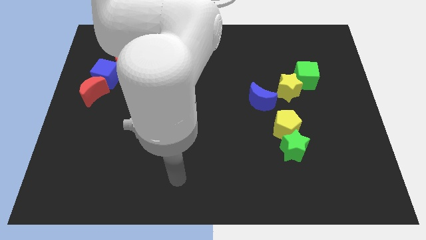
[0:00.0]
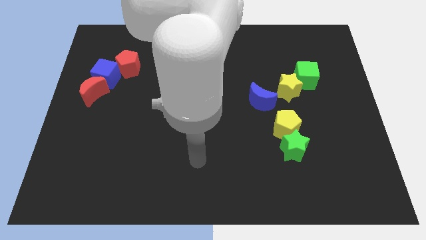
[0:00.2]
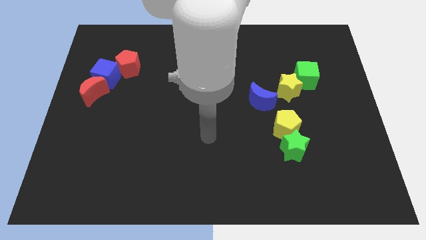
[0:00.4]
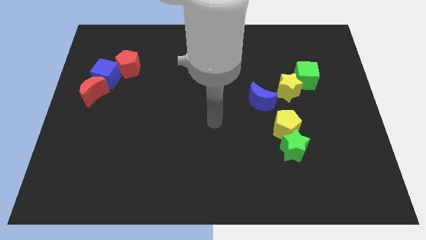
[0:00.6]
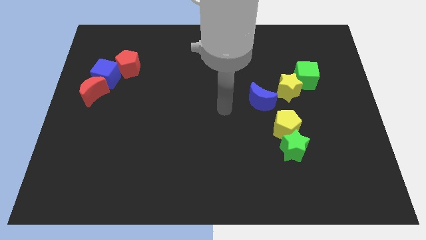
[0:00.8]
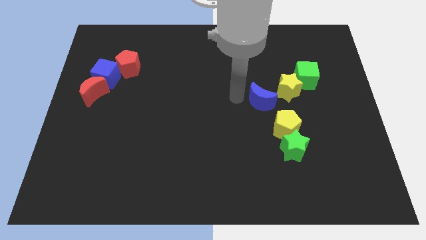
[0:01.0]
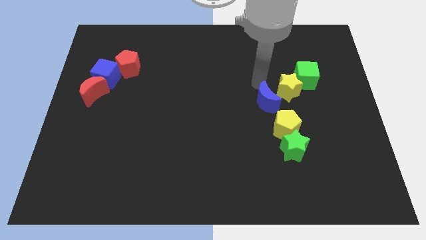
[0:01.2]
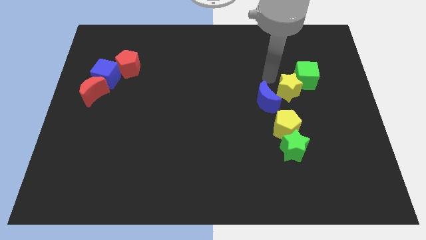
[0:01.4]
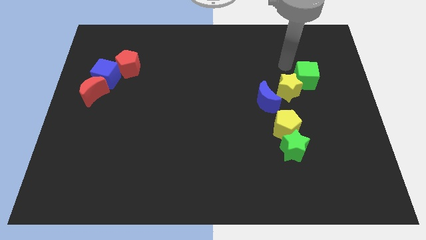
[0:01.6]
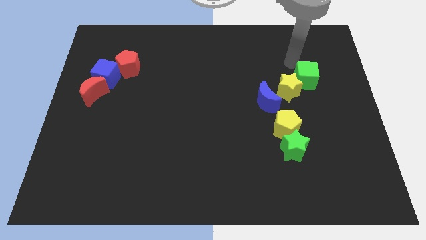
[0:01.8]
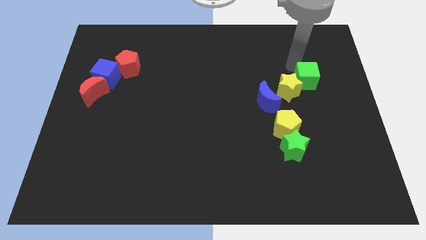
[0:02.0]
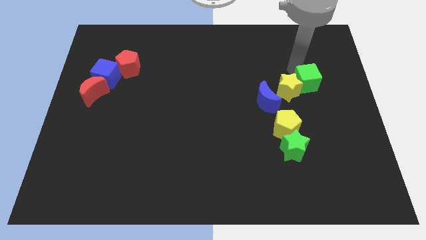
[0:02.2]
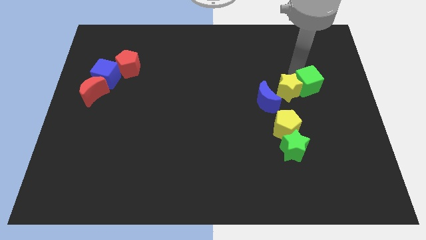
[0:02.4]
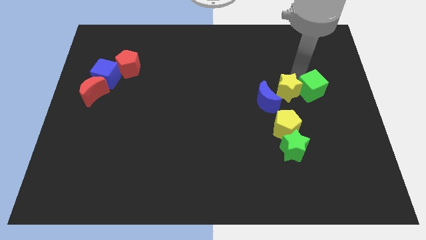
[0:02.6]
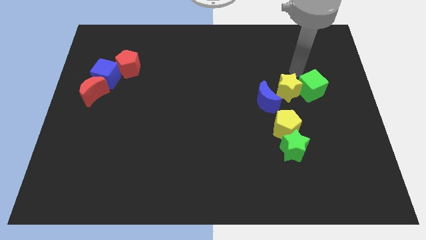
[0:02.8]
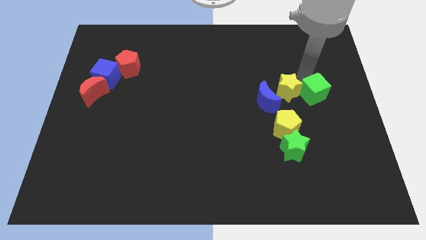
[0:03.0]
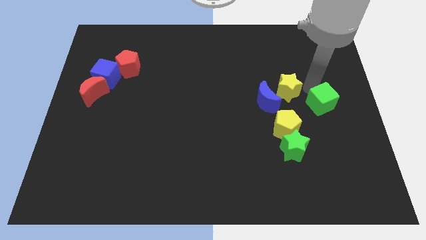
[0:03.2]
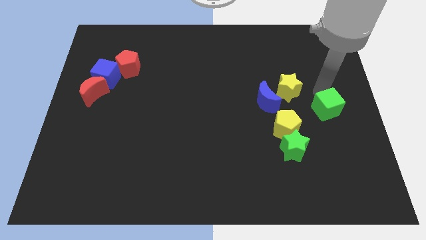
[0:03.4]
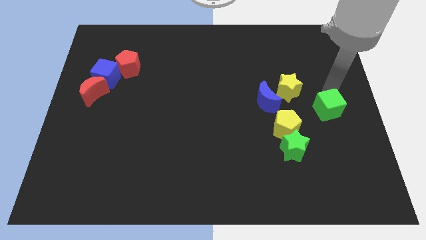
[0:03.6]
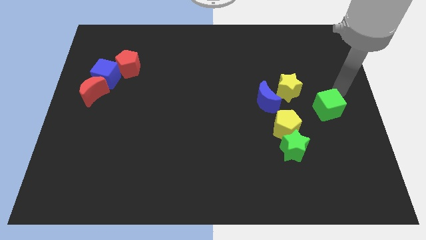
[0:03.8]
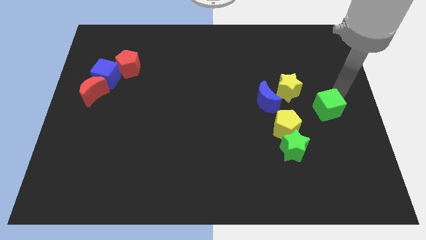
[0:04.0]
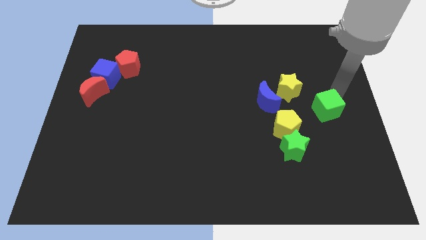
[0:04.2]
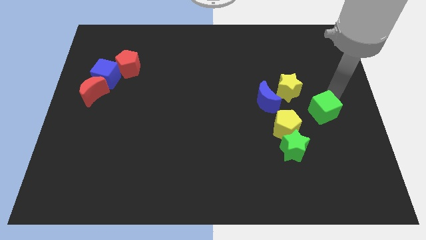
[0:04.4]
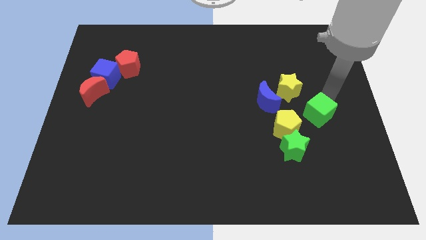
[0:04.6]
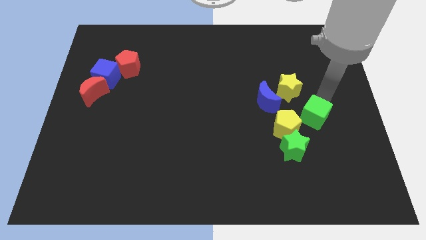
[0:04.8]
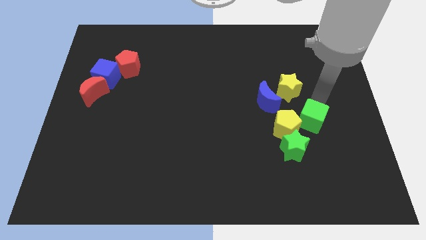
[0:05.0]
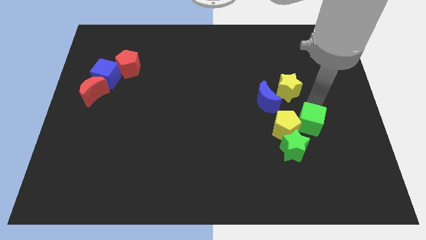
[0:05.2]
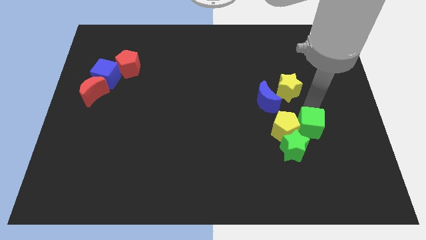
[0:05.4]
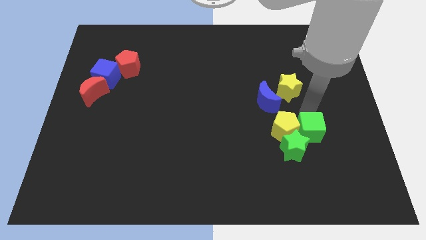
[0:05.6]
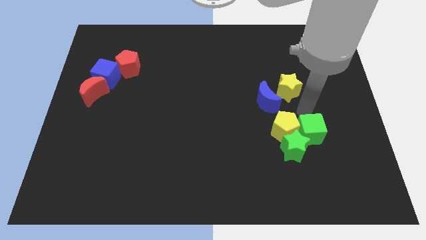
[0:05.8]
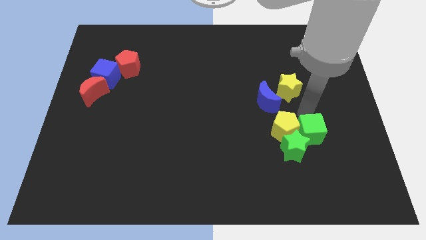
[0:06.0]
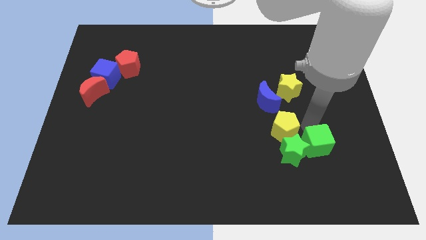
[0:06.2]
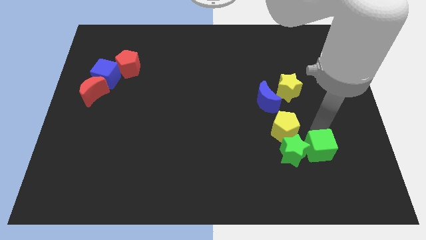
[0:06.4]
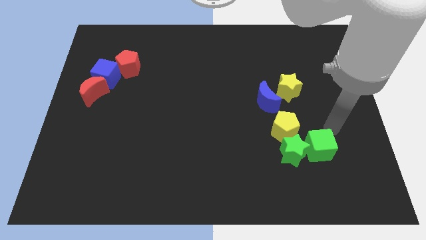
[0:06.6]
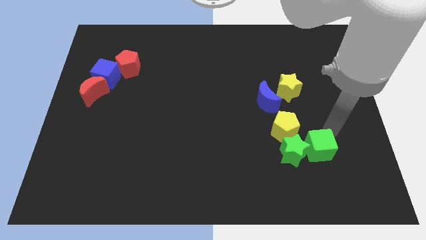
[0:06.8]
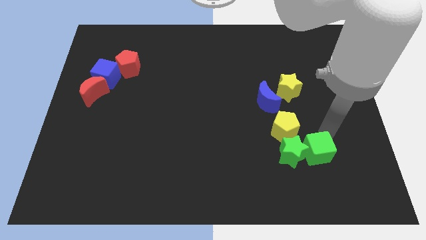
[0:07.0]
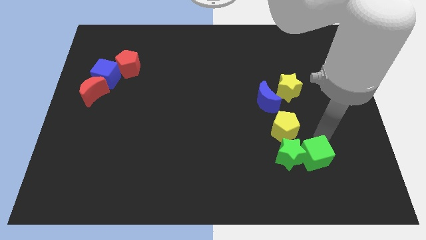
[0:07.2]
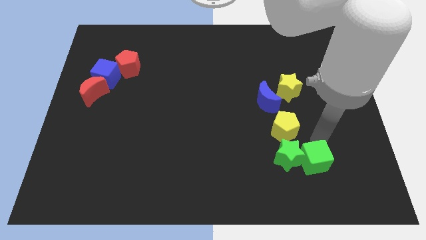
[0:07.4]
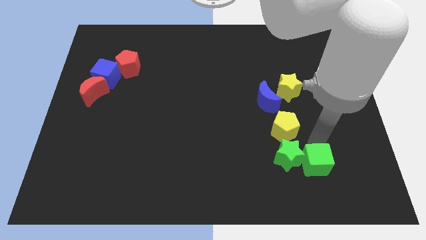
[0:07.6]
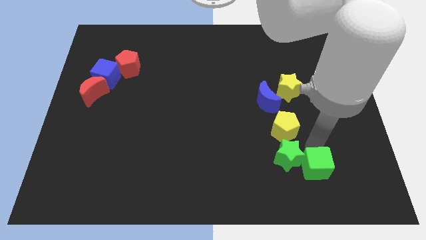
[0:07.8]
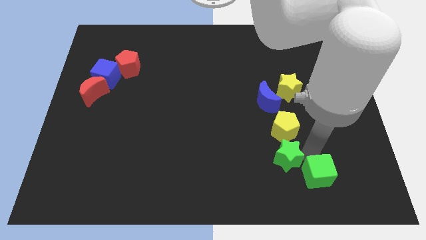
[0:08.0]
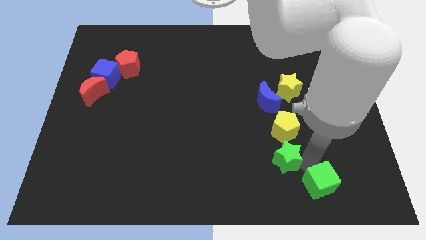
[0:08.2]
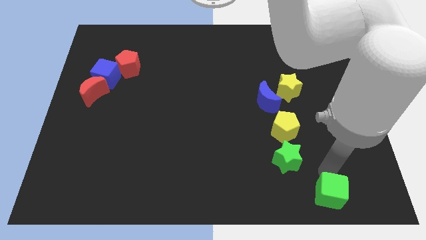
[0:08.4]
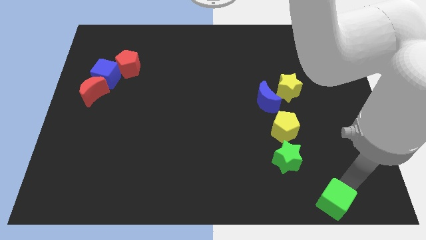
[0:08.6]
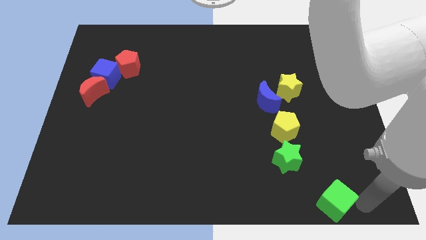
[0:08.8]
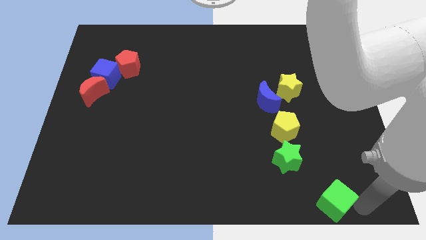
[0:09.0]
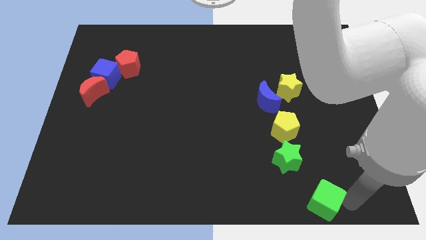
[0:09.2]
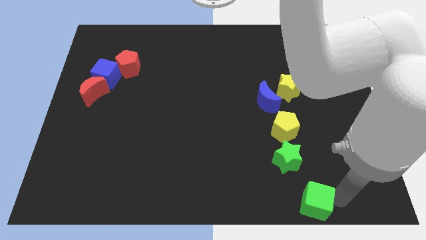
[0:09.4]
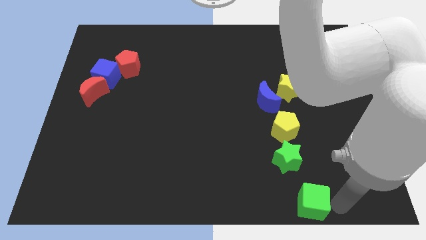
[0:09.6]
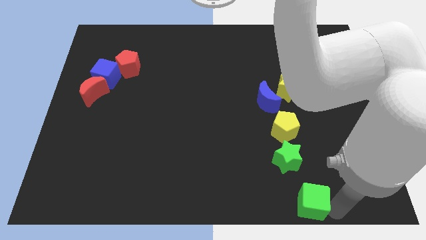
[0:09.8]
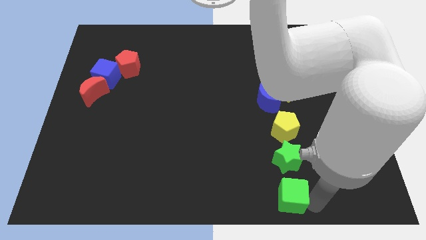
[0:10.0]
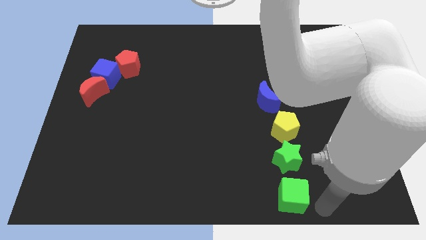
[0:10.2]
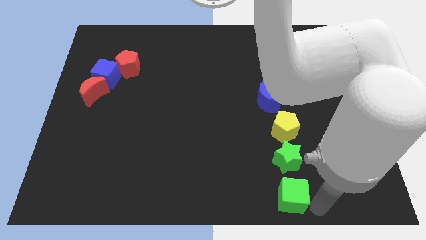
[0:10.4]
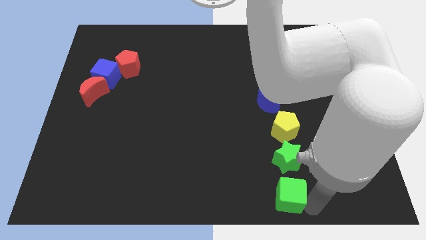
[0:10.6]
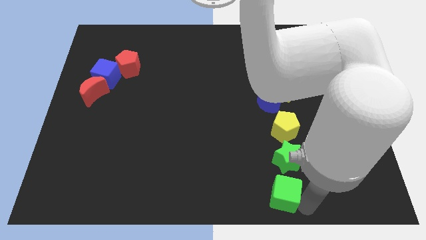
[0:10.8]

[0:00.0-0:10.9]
push the green cube to the bottom

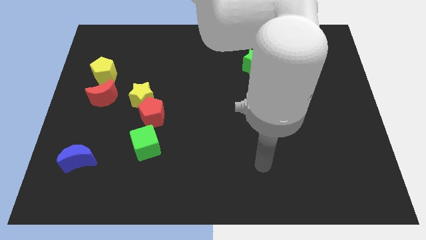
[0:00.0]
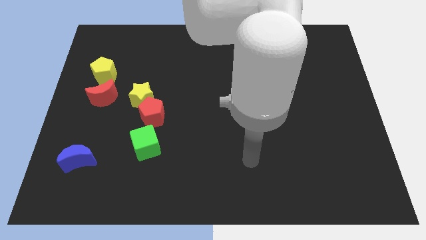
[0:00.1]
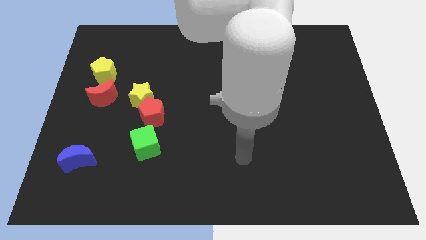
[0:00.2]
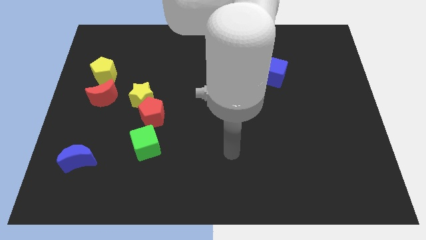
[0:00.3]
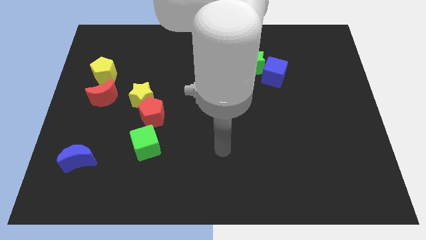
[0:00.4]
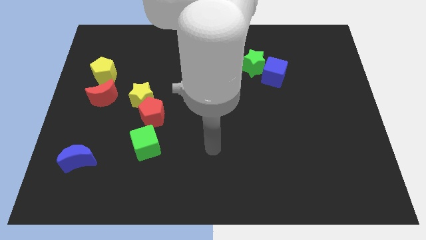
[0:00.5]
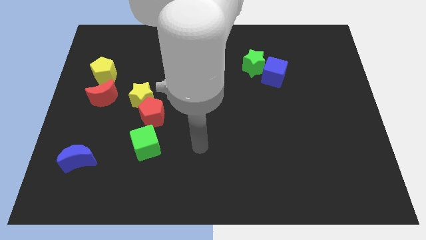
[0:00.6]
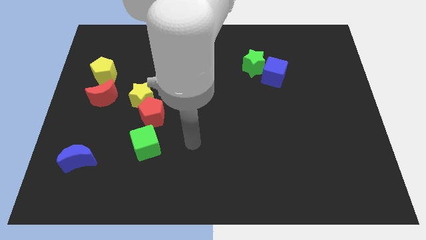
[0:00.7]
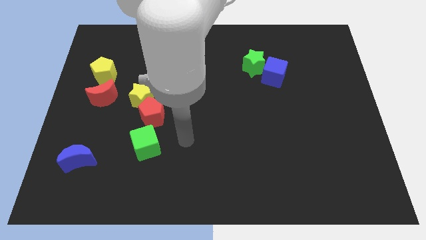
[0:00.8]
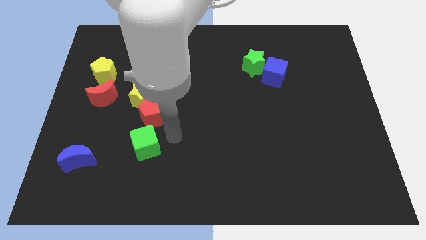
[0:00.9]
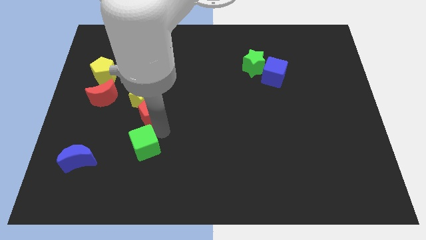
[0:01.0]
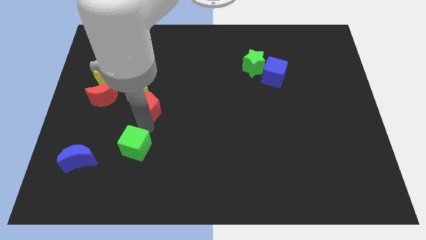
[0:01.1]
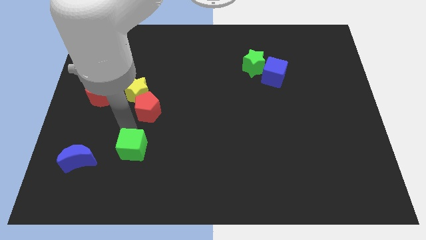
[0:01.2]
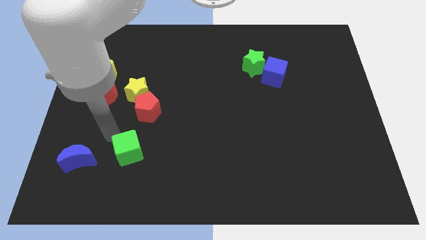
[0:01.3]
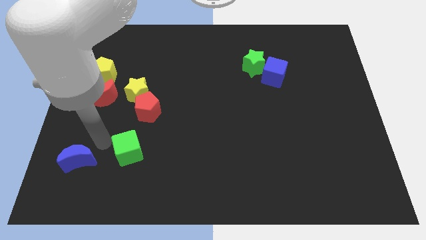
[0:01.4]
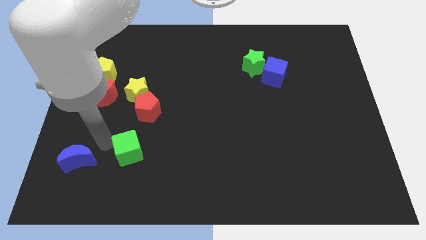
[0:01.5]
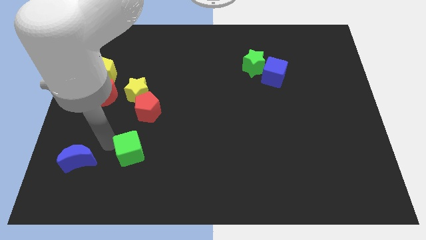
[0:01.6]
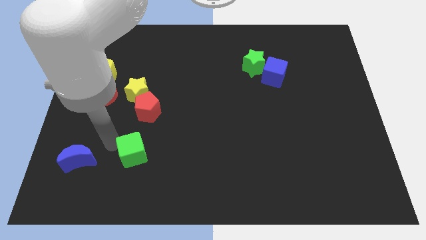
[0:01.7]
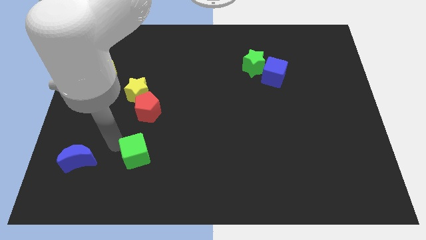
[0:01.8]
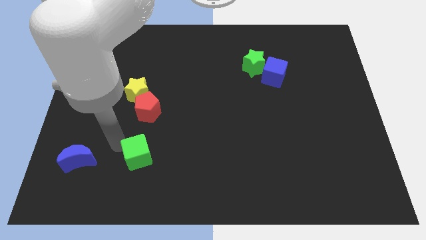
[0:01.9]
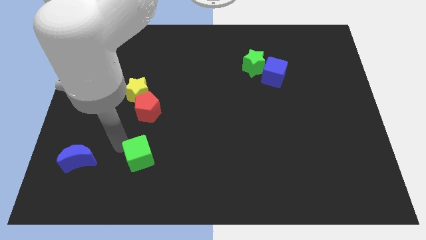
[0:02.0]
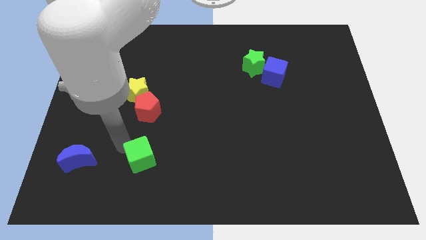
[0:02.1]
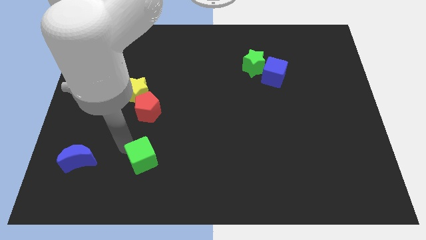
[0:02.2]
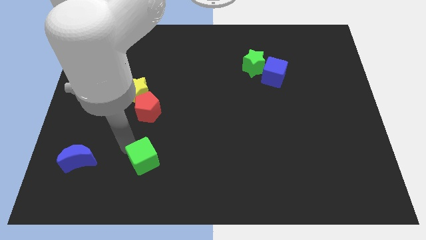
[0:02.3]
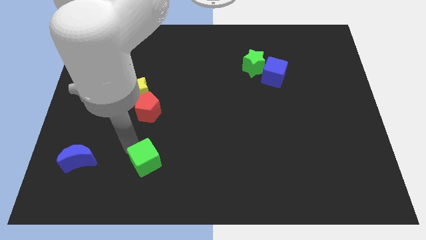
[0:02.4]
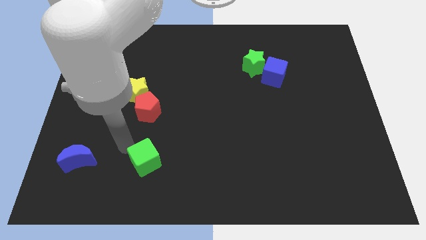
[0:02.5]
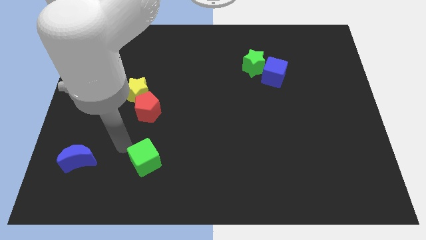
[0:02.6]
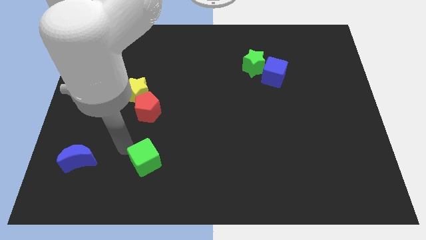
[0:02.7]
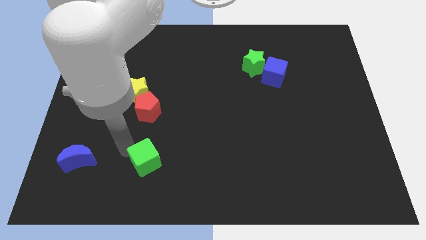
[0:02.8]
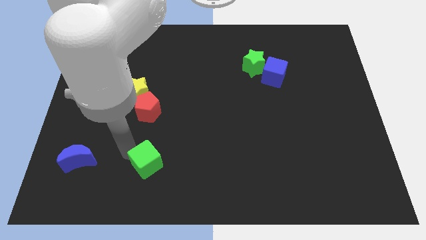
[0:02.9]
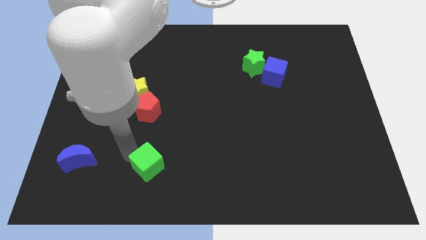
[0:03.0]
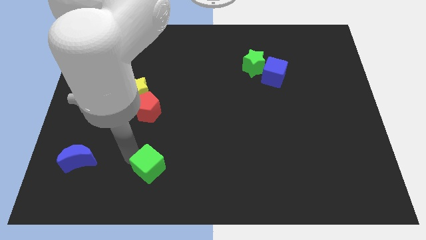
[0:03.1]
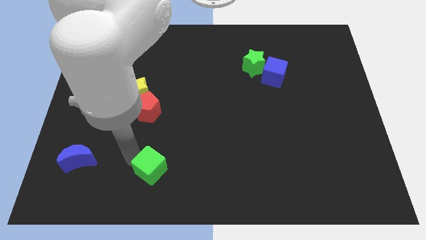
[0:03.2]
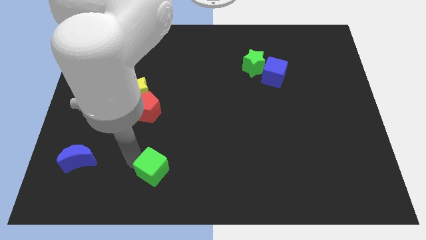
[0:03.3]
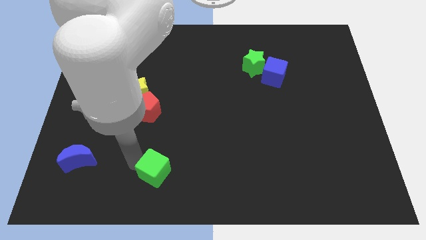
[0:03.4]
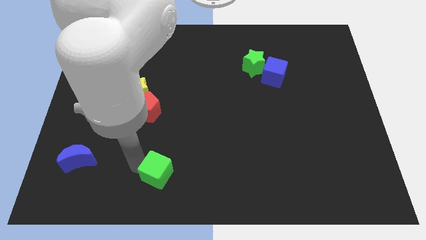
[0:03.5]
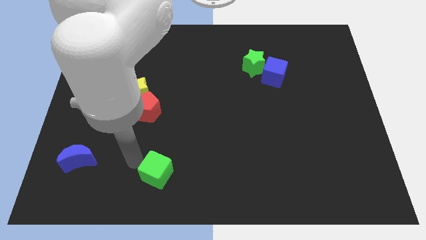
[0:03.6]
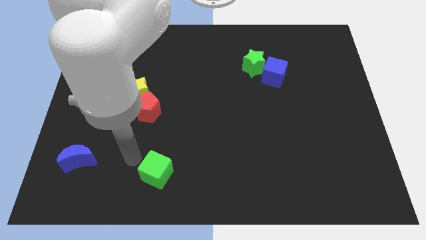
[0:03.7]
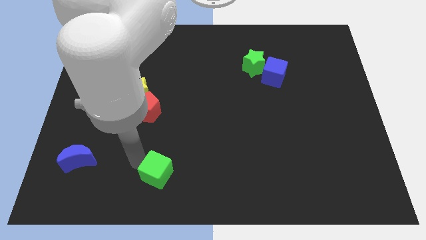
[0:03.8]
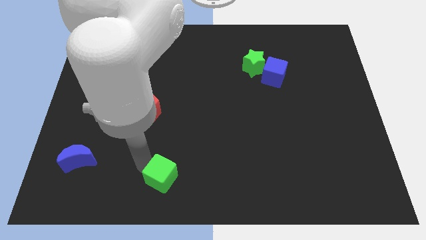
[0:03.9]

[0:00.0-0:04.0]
put the green cube to the bottom side
